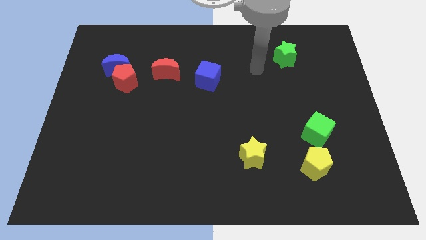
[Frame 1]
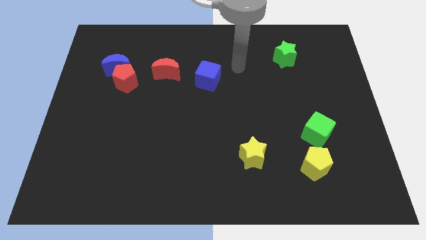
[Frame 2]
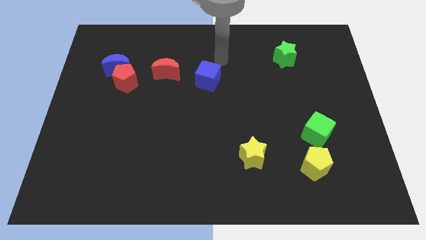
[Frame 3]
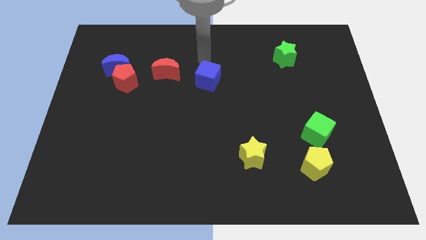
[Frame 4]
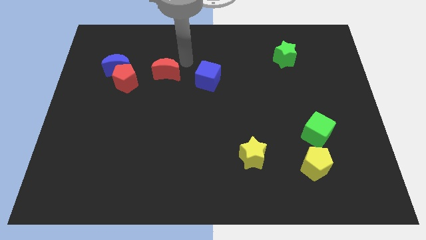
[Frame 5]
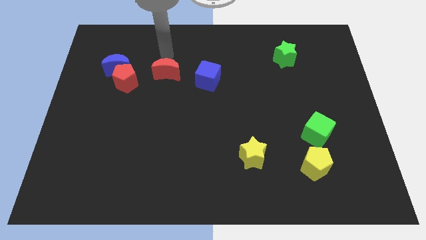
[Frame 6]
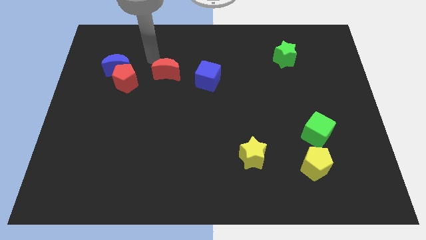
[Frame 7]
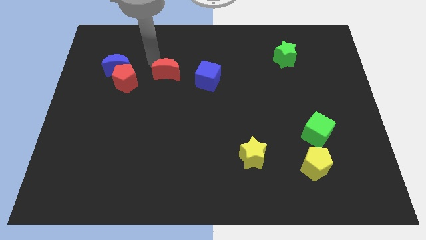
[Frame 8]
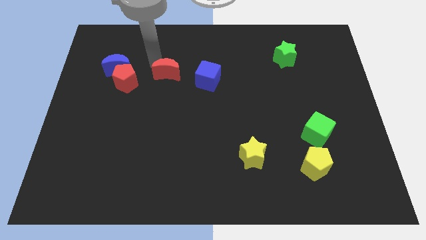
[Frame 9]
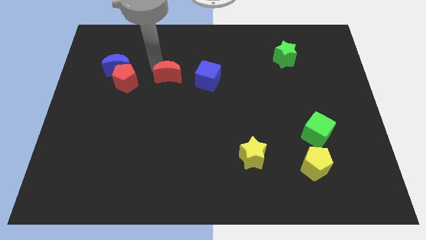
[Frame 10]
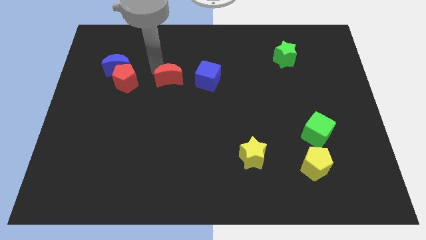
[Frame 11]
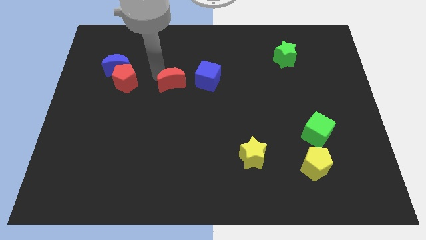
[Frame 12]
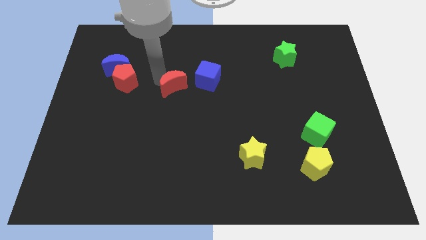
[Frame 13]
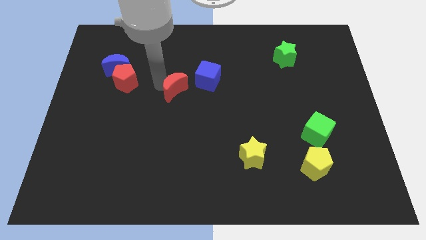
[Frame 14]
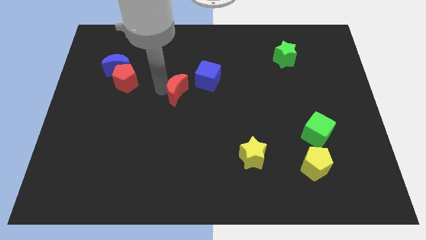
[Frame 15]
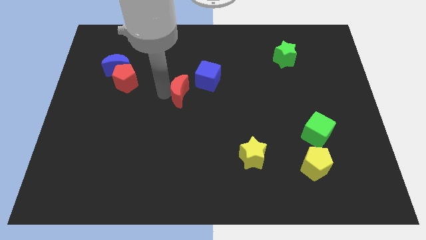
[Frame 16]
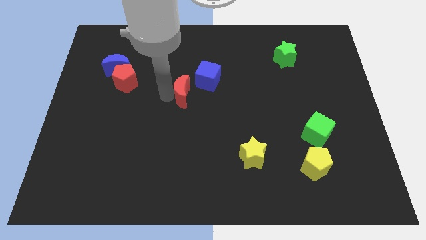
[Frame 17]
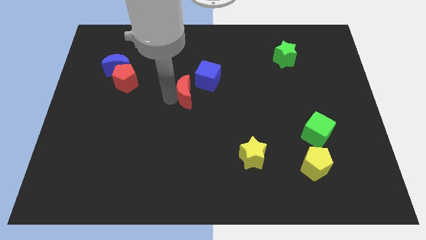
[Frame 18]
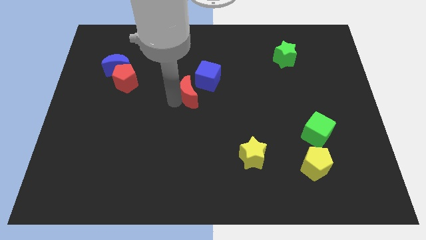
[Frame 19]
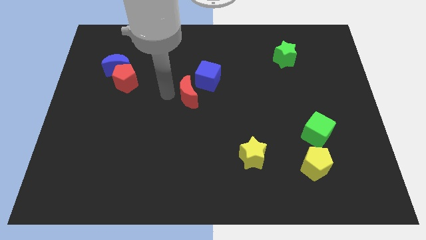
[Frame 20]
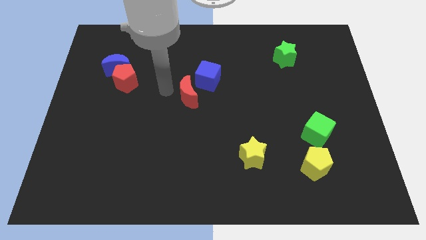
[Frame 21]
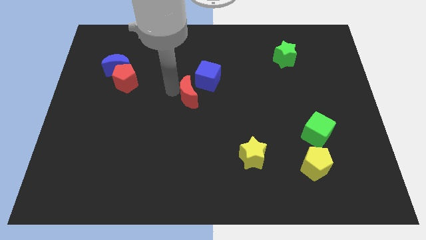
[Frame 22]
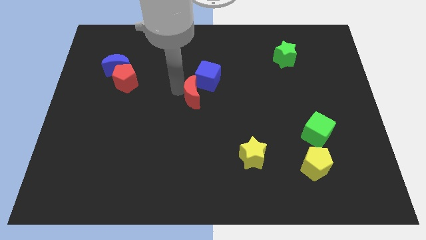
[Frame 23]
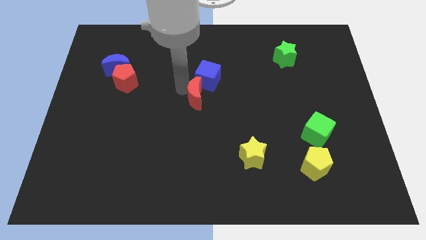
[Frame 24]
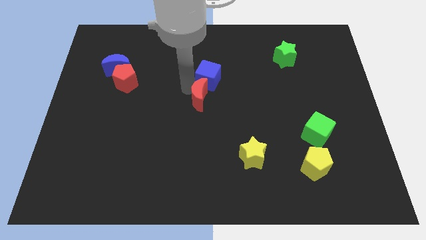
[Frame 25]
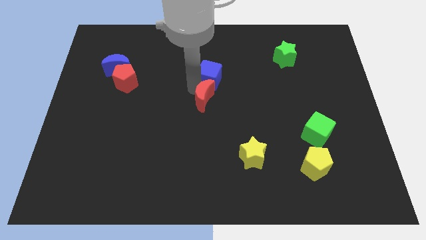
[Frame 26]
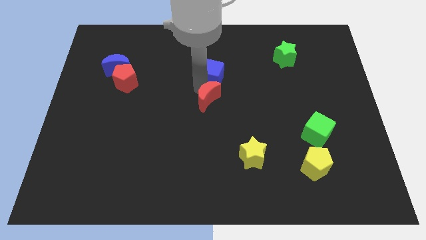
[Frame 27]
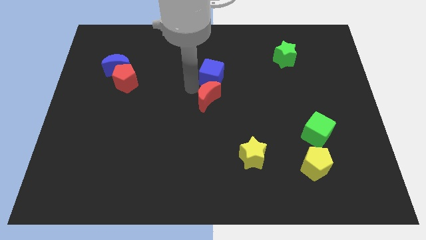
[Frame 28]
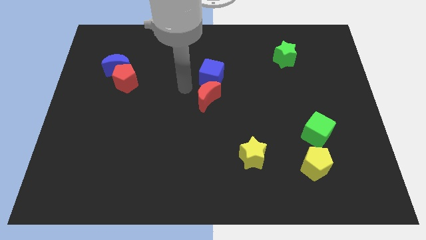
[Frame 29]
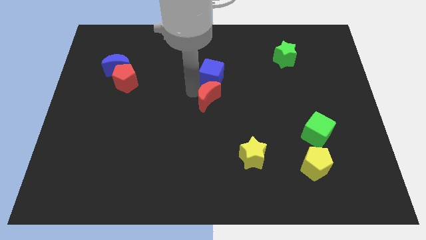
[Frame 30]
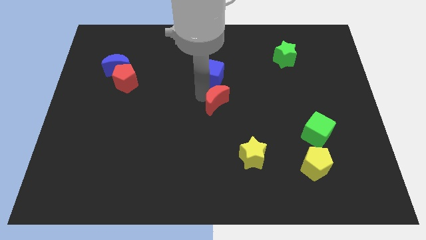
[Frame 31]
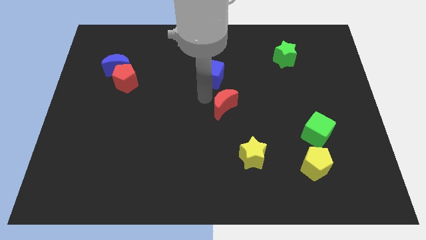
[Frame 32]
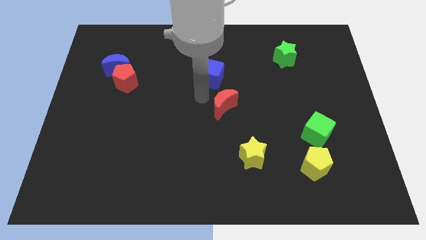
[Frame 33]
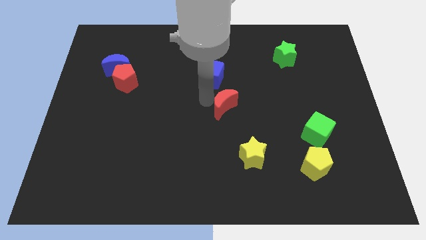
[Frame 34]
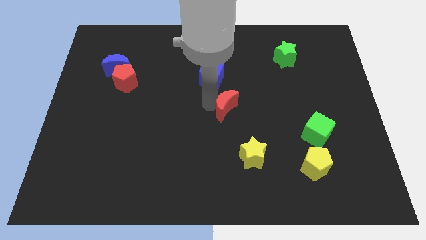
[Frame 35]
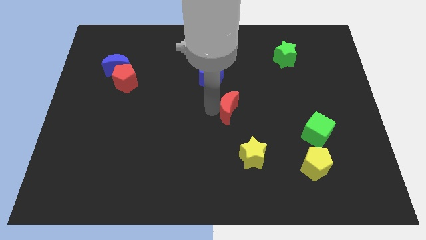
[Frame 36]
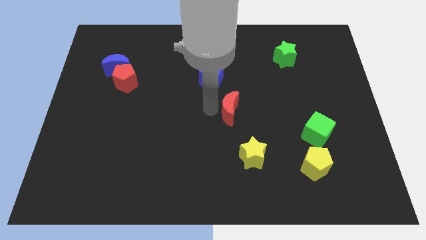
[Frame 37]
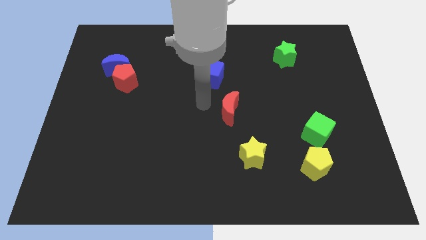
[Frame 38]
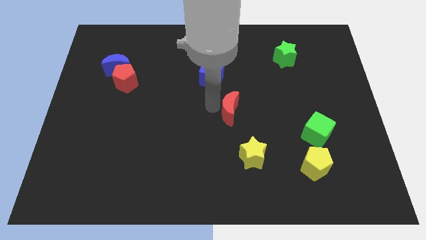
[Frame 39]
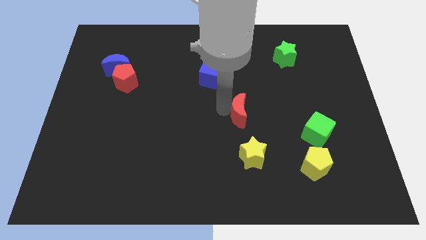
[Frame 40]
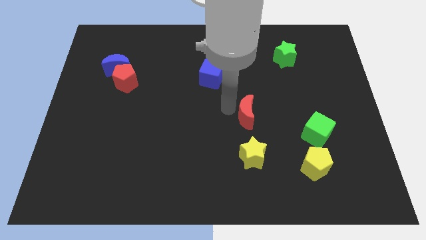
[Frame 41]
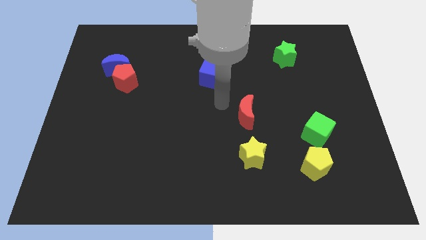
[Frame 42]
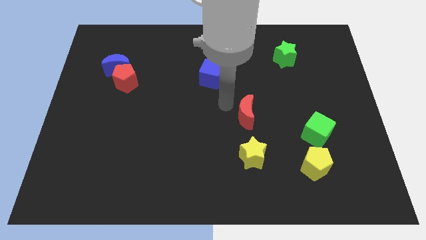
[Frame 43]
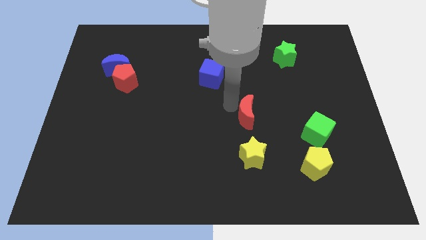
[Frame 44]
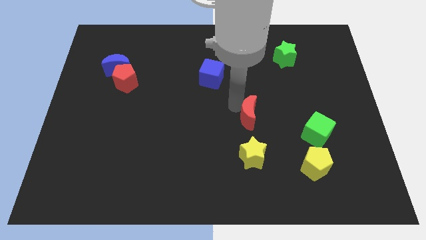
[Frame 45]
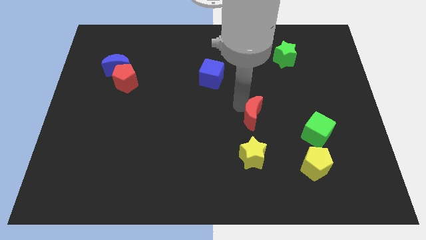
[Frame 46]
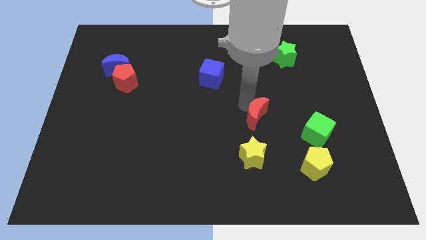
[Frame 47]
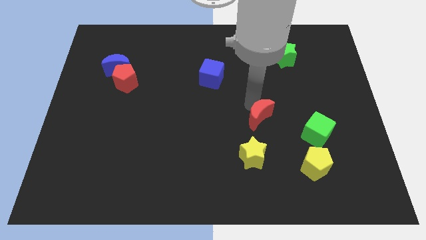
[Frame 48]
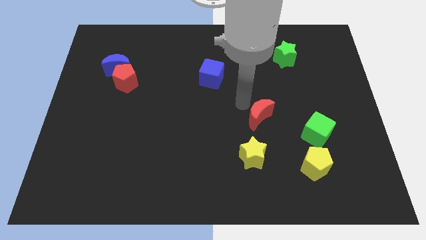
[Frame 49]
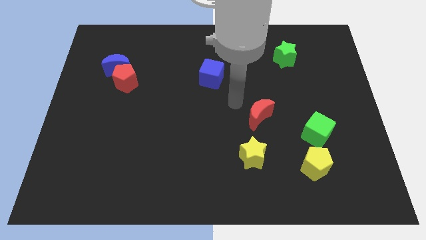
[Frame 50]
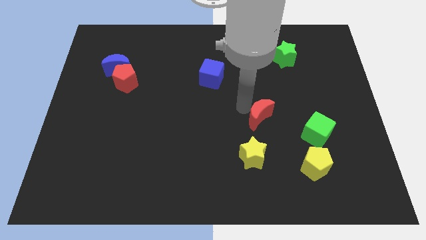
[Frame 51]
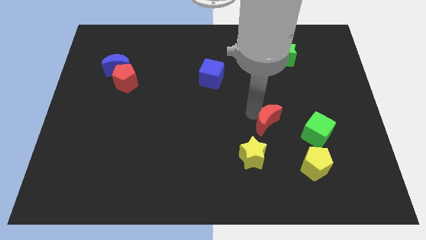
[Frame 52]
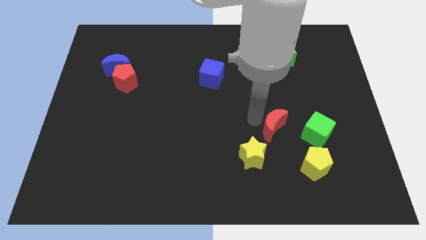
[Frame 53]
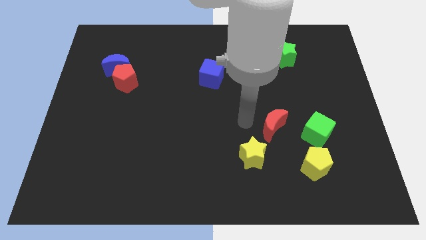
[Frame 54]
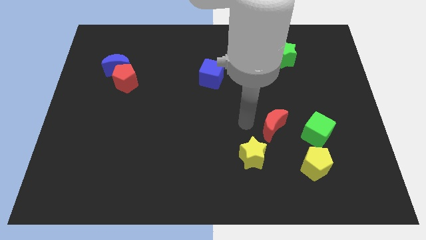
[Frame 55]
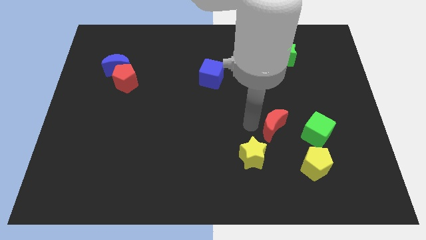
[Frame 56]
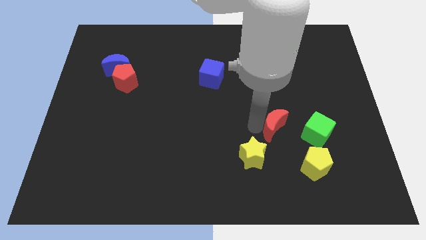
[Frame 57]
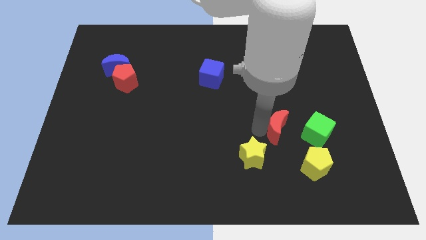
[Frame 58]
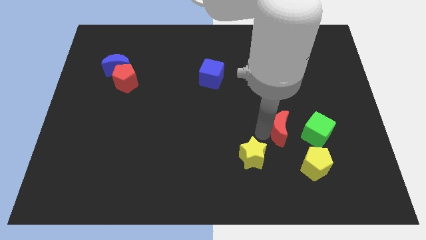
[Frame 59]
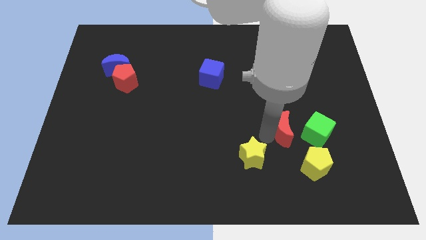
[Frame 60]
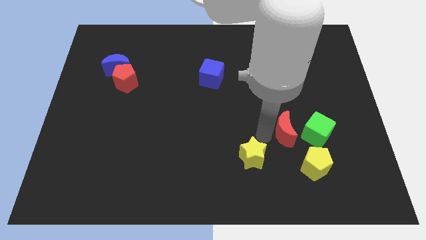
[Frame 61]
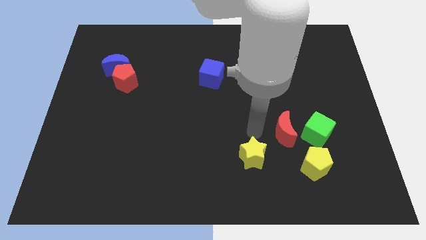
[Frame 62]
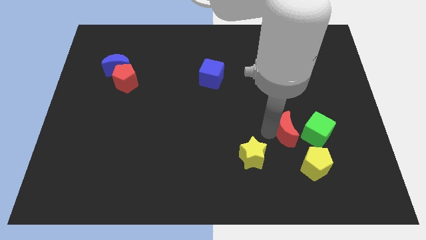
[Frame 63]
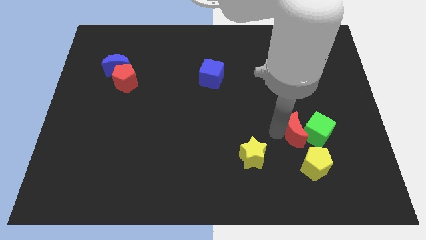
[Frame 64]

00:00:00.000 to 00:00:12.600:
move the red moon to the green cube

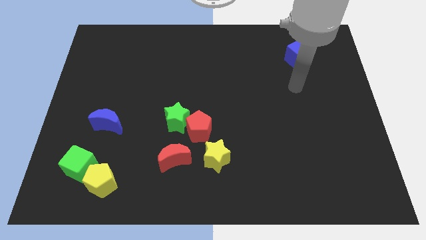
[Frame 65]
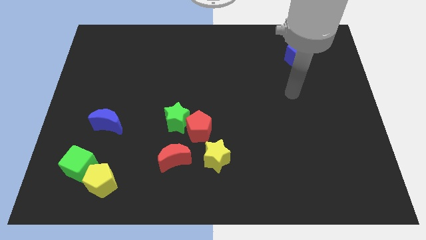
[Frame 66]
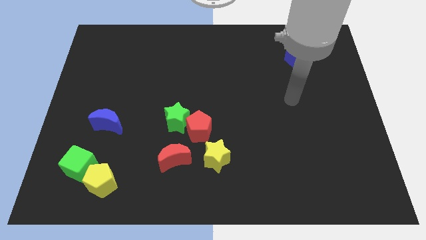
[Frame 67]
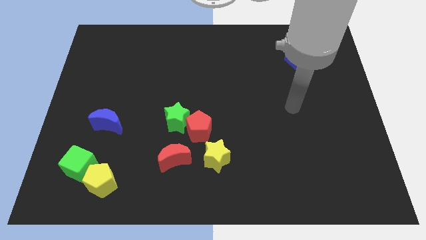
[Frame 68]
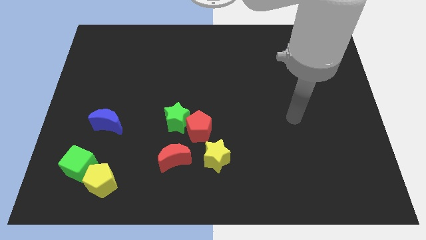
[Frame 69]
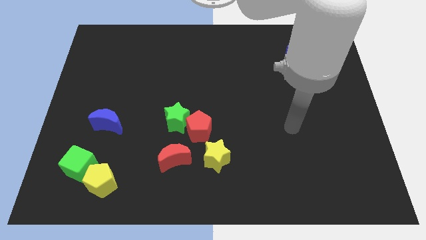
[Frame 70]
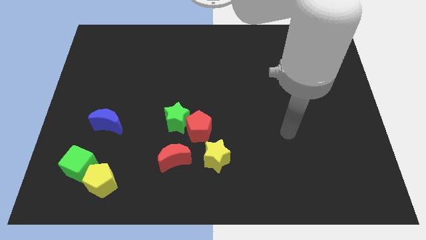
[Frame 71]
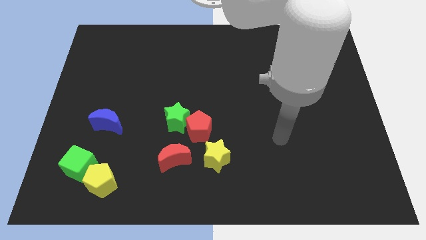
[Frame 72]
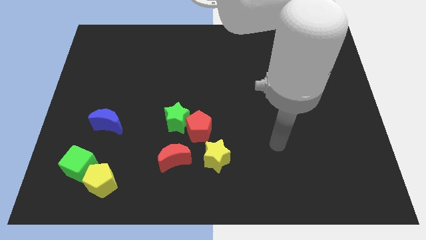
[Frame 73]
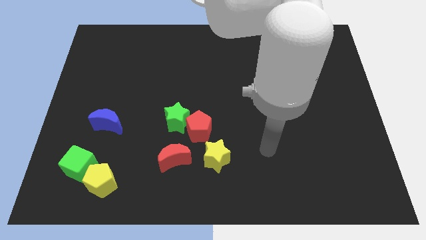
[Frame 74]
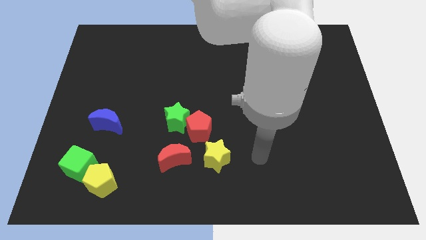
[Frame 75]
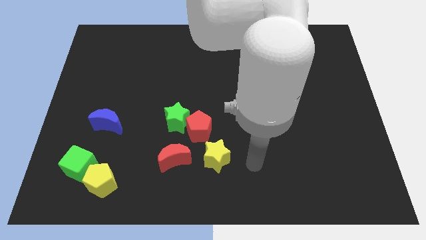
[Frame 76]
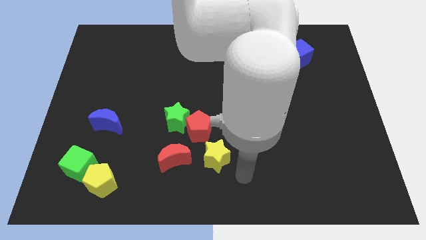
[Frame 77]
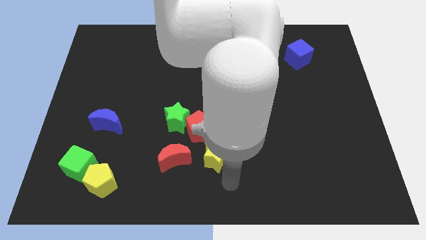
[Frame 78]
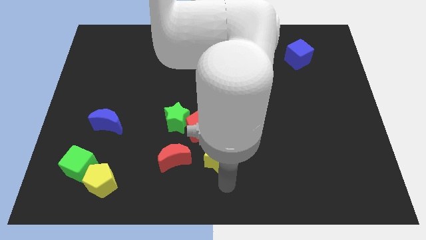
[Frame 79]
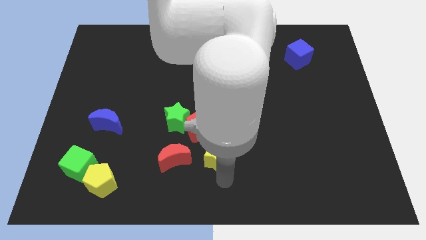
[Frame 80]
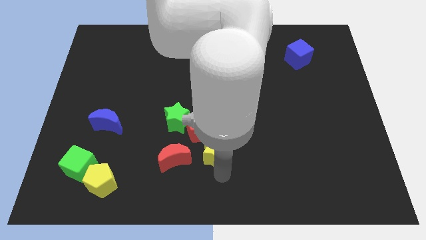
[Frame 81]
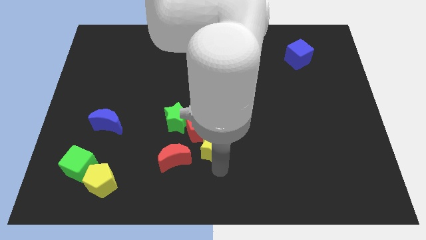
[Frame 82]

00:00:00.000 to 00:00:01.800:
put the yellow star towards the red pentagon
